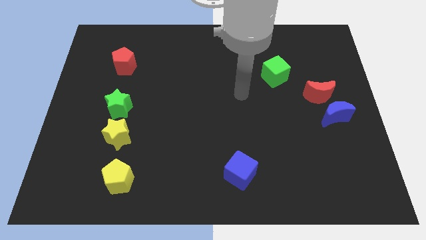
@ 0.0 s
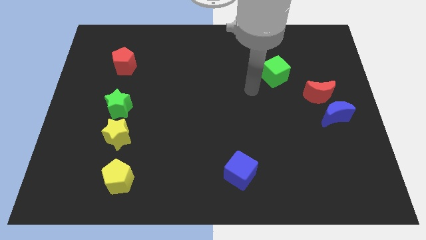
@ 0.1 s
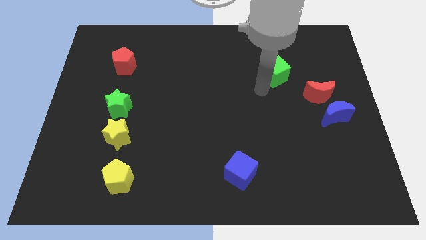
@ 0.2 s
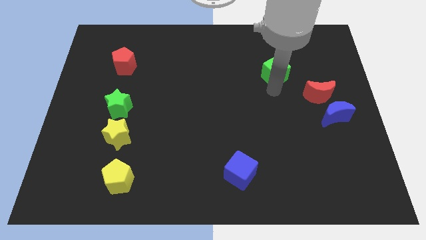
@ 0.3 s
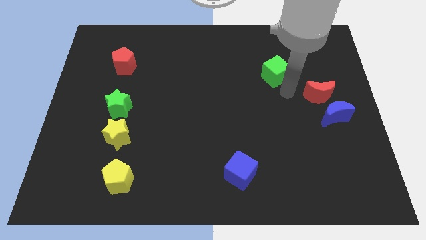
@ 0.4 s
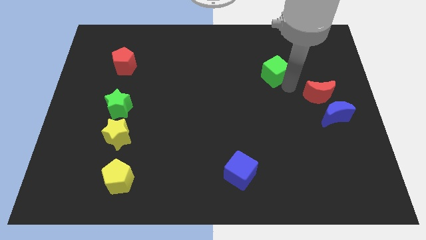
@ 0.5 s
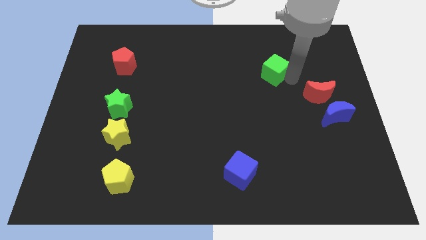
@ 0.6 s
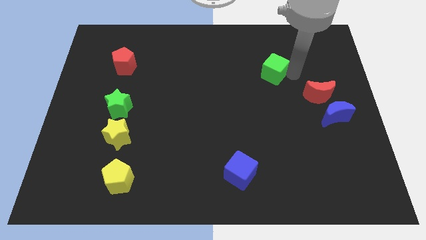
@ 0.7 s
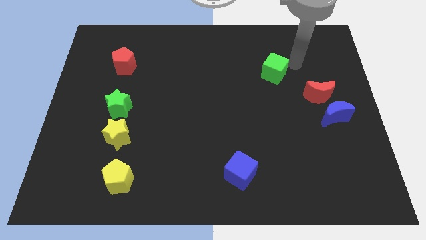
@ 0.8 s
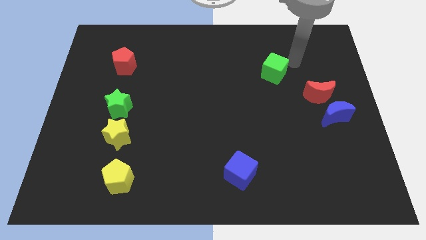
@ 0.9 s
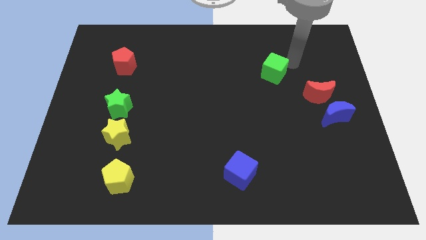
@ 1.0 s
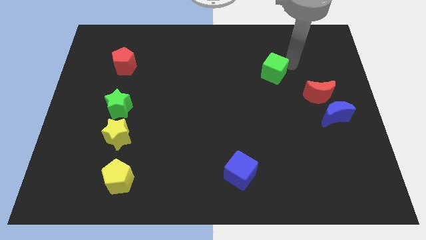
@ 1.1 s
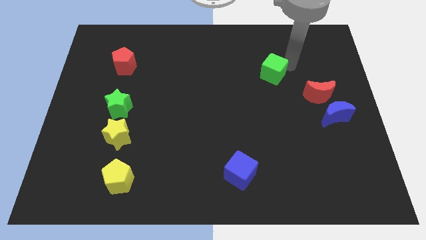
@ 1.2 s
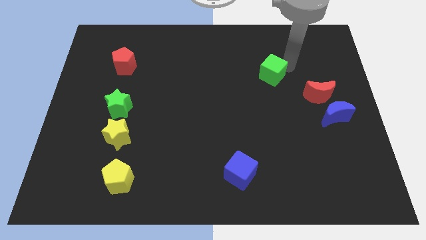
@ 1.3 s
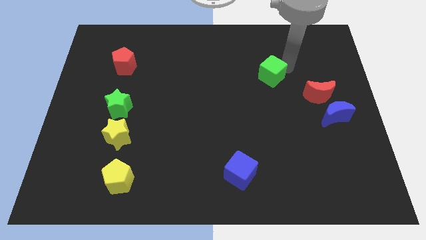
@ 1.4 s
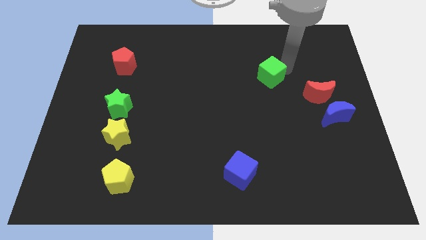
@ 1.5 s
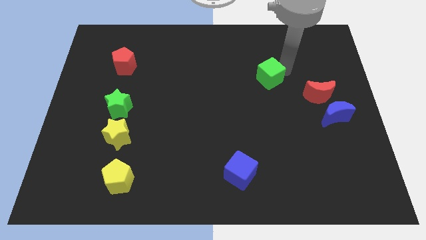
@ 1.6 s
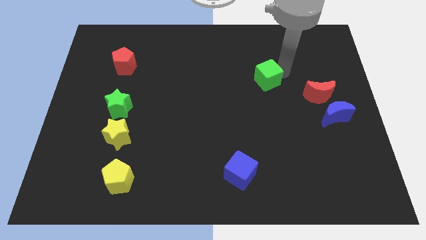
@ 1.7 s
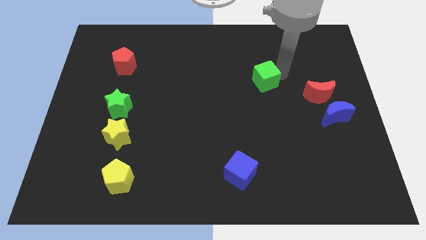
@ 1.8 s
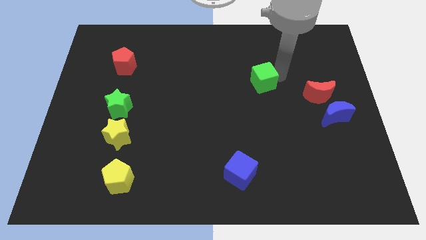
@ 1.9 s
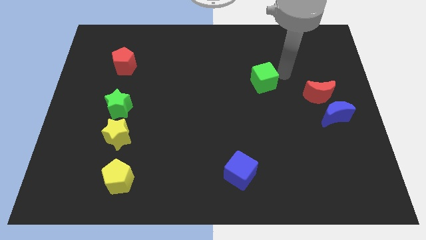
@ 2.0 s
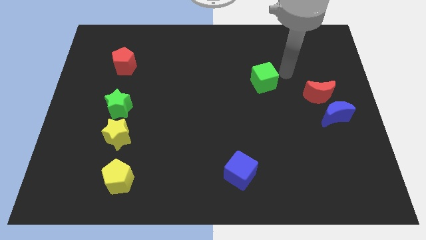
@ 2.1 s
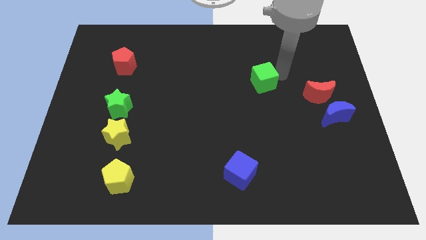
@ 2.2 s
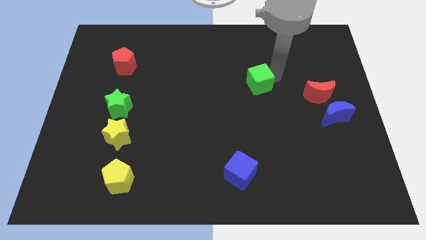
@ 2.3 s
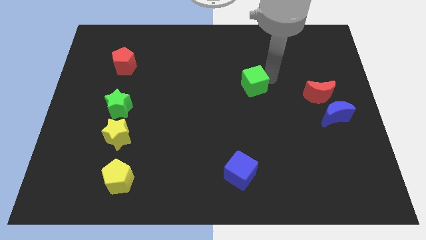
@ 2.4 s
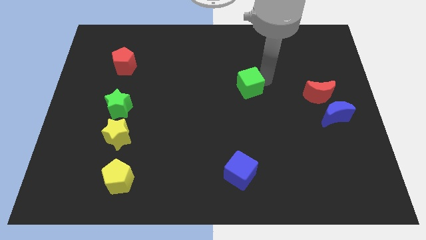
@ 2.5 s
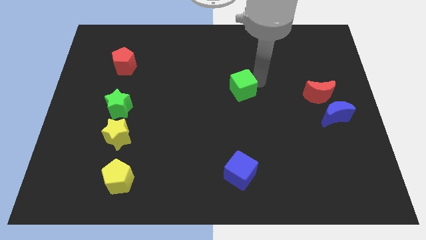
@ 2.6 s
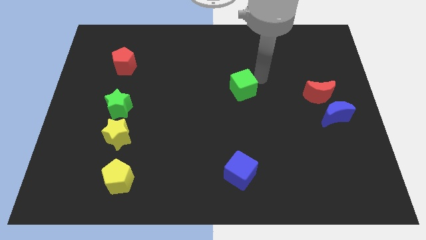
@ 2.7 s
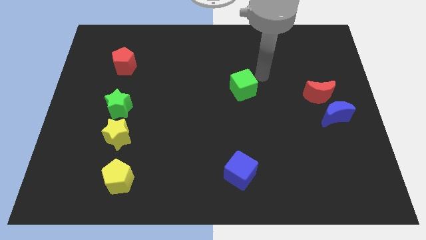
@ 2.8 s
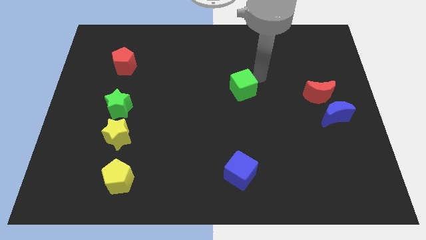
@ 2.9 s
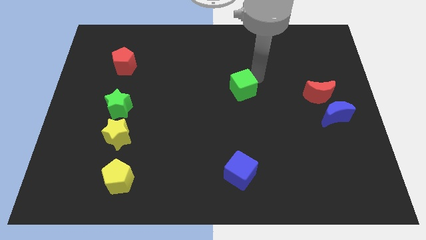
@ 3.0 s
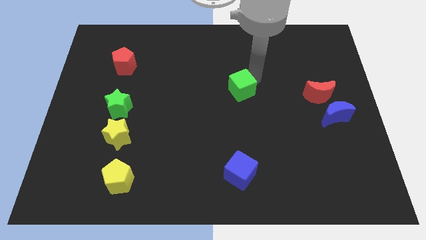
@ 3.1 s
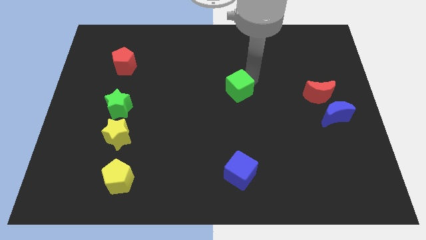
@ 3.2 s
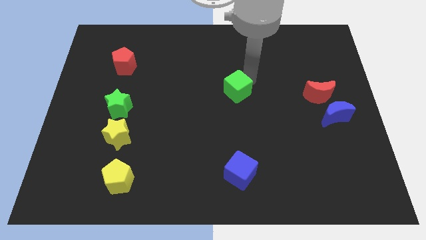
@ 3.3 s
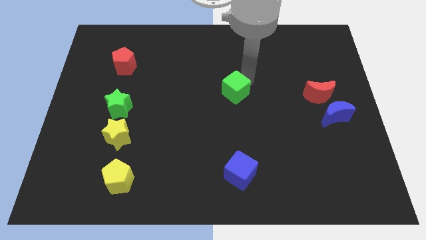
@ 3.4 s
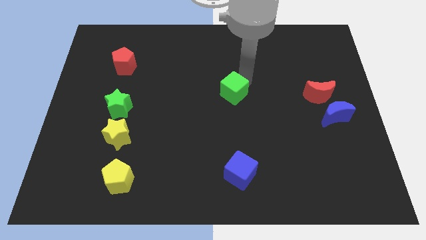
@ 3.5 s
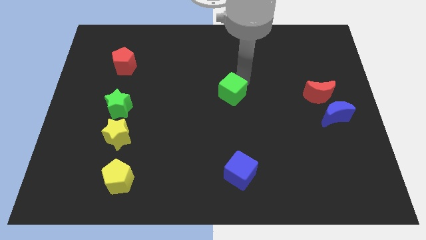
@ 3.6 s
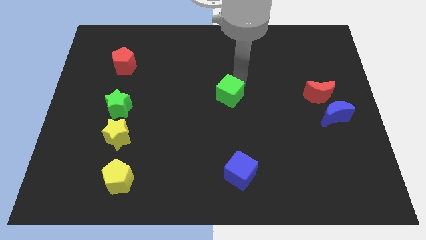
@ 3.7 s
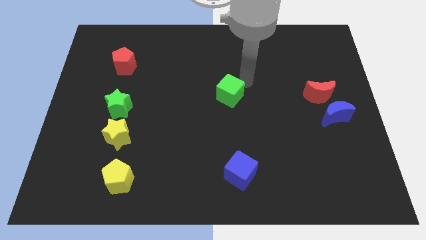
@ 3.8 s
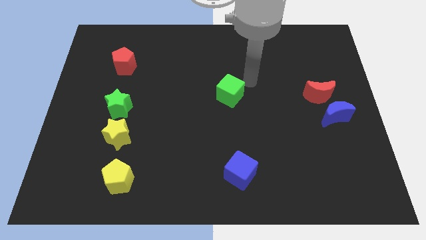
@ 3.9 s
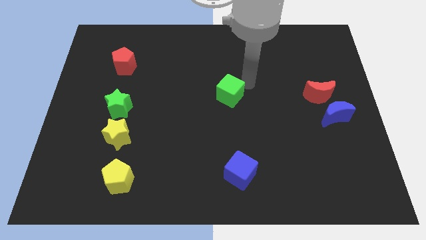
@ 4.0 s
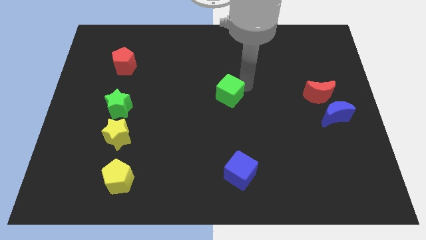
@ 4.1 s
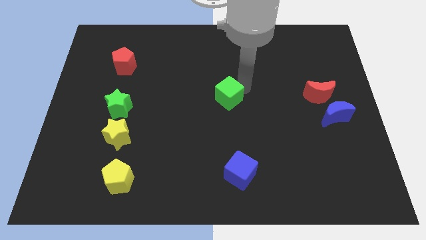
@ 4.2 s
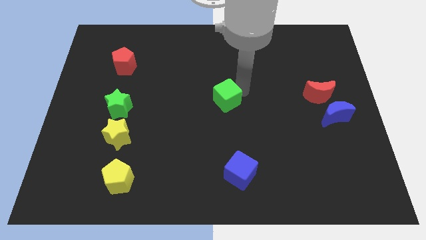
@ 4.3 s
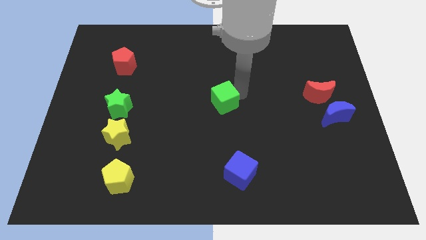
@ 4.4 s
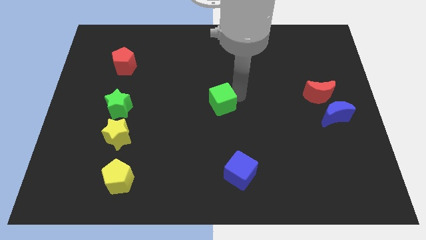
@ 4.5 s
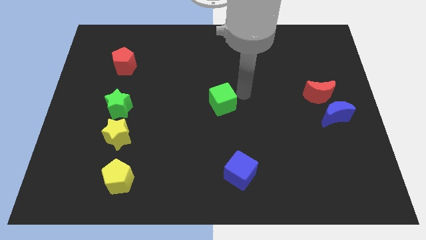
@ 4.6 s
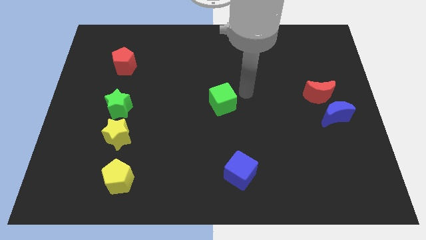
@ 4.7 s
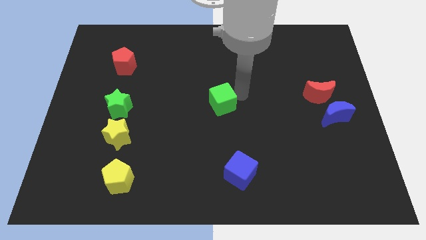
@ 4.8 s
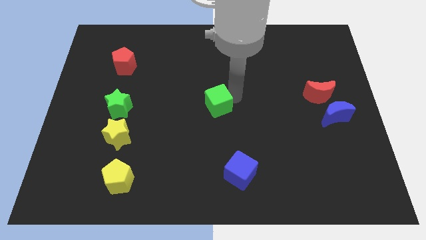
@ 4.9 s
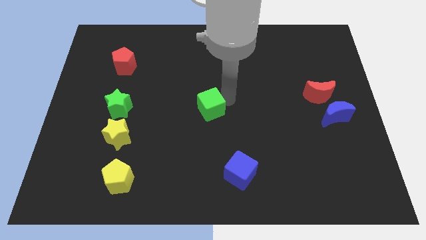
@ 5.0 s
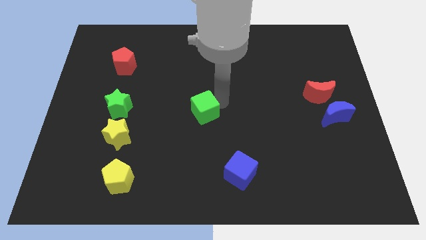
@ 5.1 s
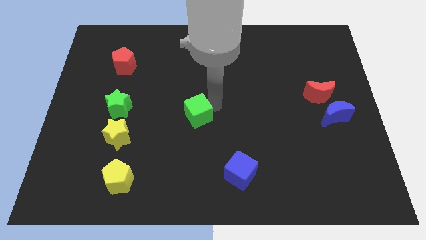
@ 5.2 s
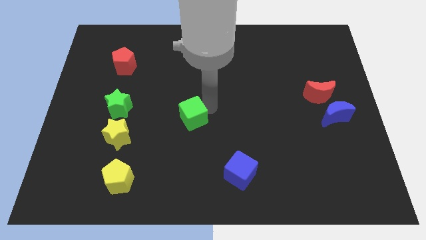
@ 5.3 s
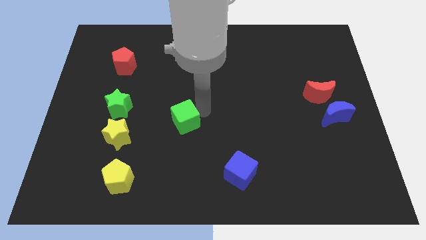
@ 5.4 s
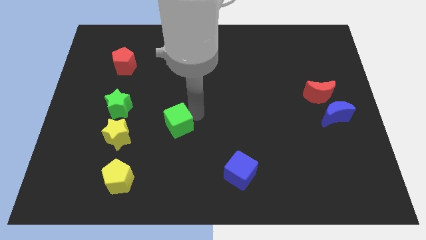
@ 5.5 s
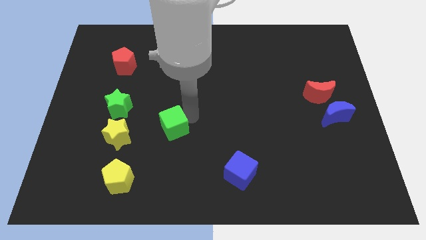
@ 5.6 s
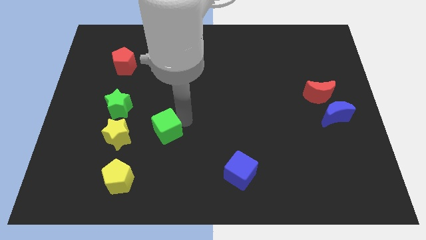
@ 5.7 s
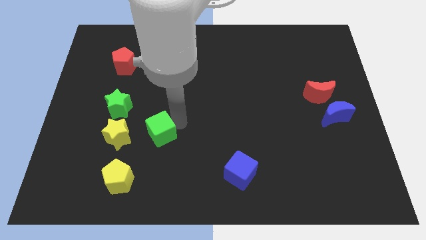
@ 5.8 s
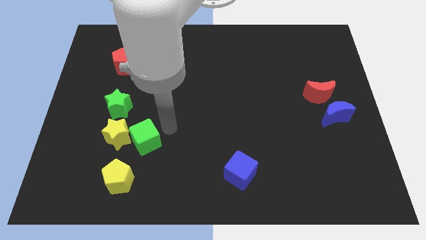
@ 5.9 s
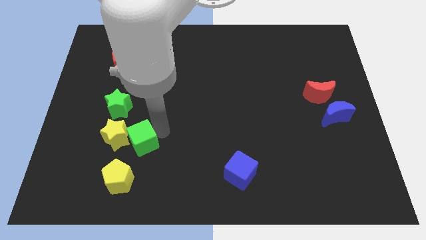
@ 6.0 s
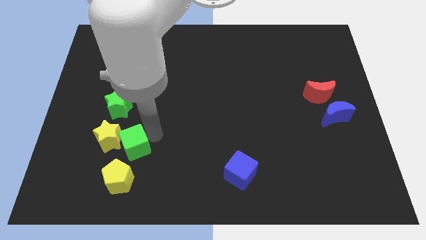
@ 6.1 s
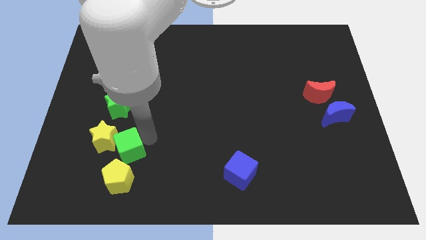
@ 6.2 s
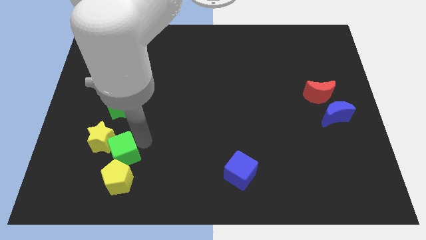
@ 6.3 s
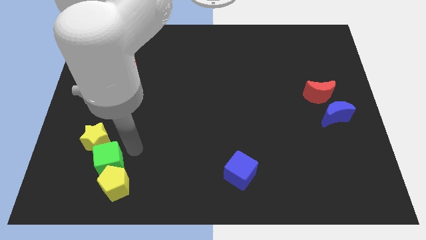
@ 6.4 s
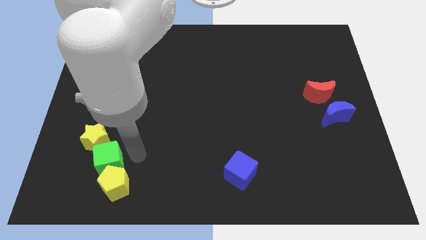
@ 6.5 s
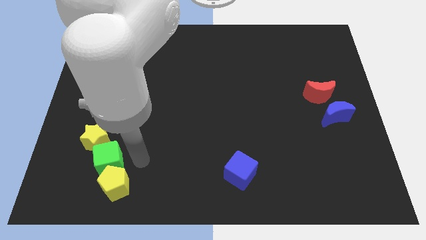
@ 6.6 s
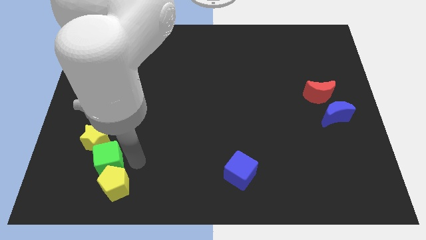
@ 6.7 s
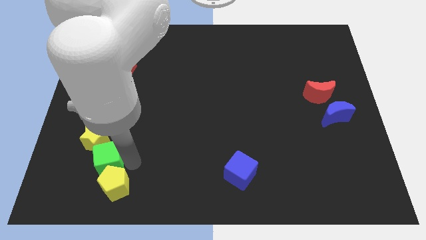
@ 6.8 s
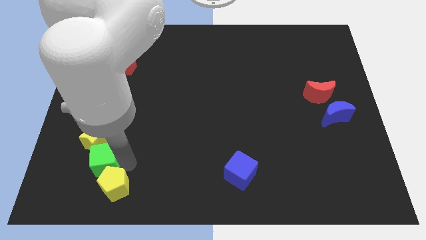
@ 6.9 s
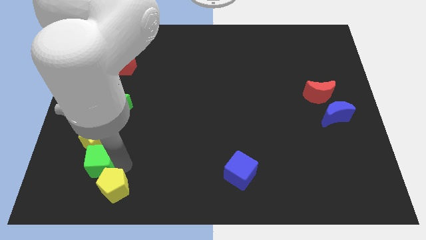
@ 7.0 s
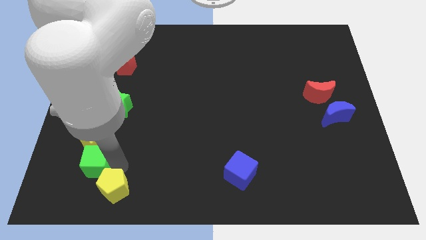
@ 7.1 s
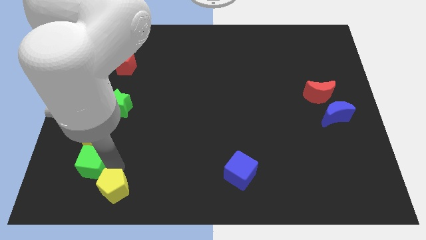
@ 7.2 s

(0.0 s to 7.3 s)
move the green cube diagonally down and to the left of the yellow star
